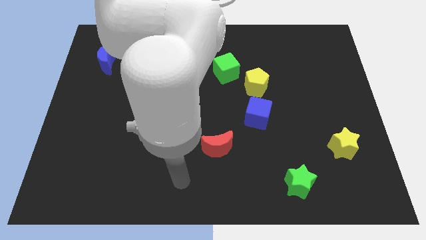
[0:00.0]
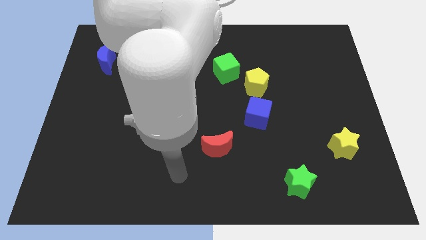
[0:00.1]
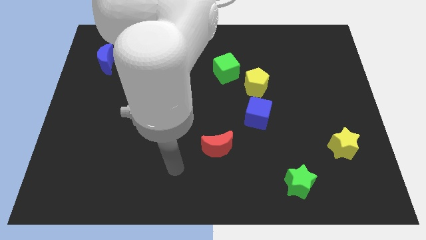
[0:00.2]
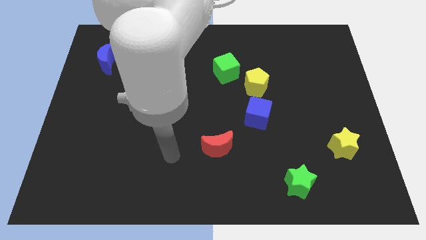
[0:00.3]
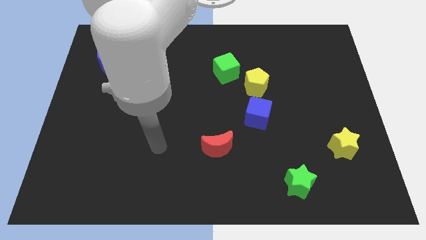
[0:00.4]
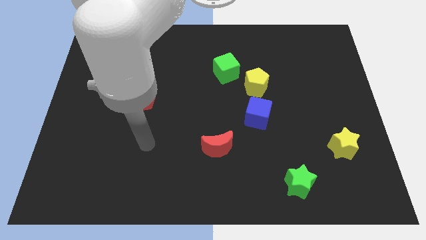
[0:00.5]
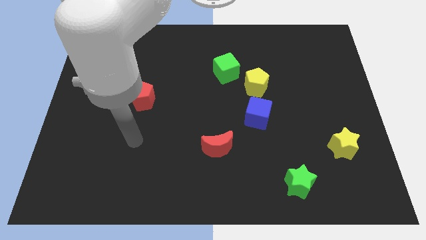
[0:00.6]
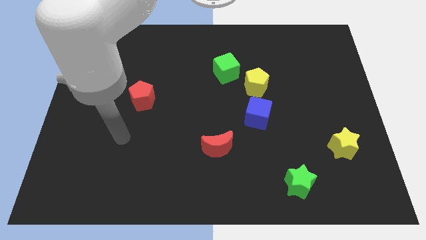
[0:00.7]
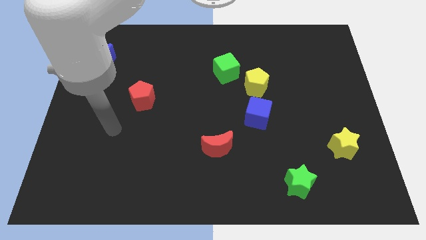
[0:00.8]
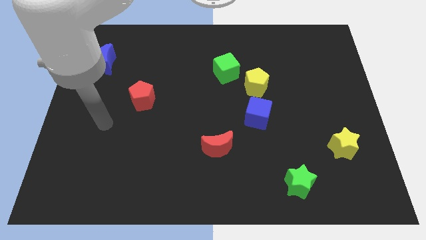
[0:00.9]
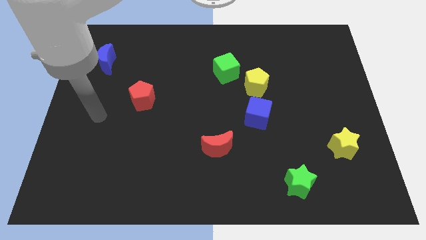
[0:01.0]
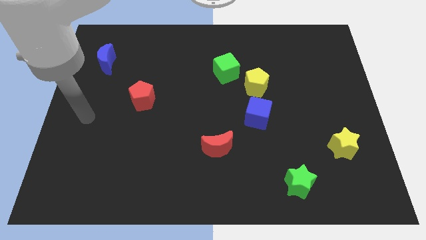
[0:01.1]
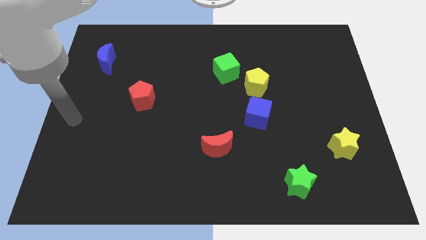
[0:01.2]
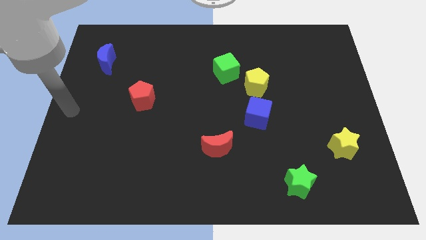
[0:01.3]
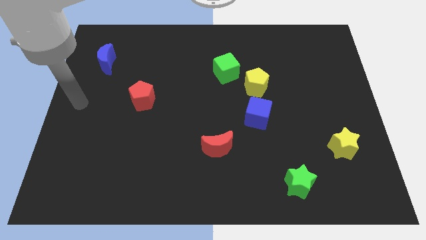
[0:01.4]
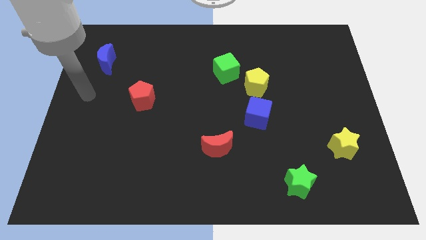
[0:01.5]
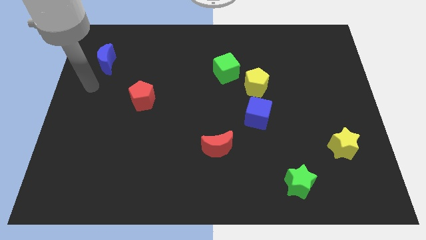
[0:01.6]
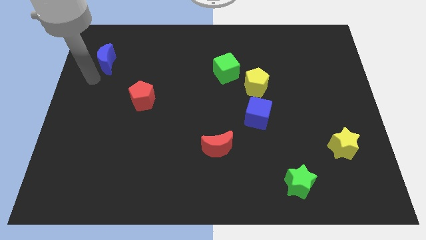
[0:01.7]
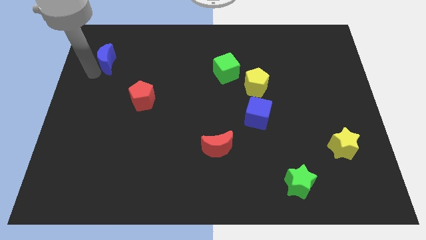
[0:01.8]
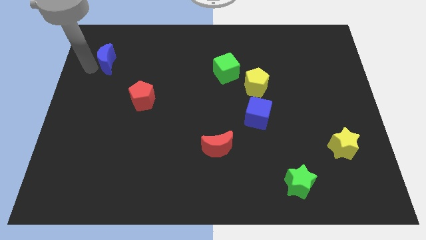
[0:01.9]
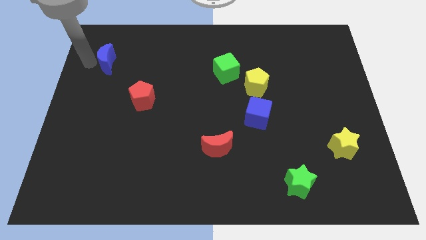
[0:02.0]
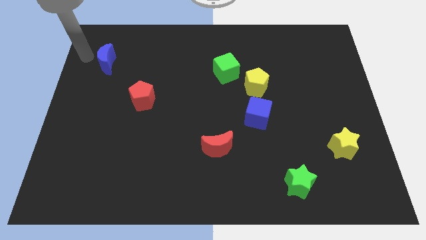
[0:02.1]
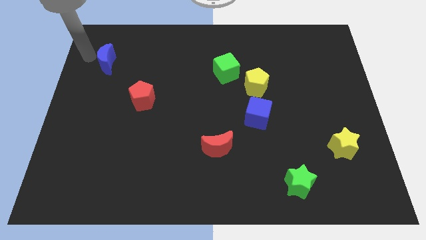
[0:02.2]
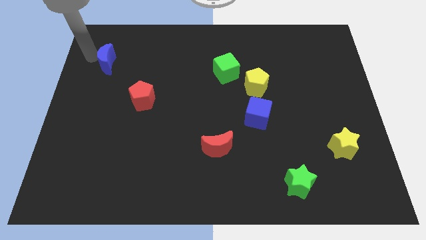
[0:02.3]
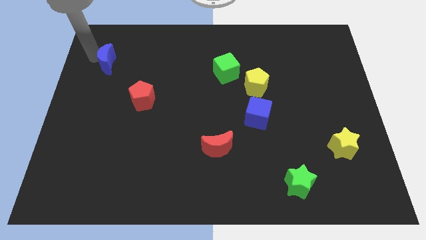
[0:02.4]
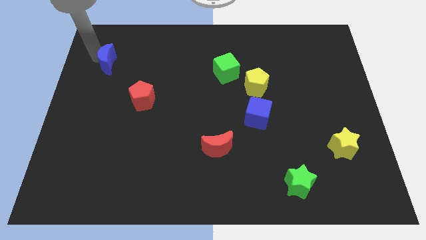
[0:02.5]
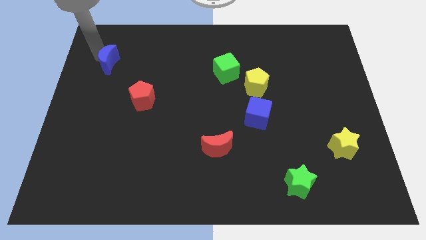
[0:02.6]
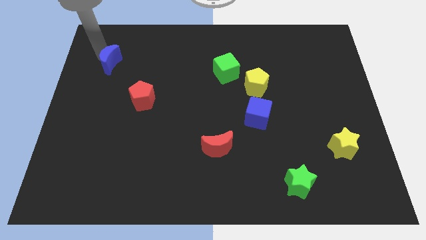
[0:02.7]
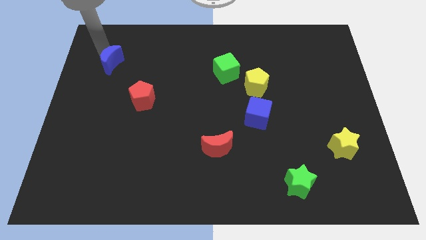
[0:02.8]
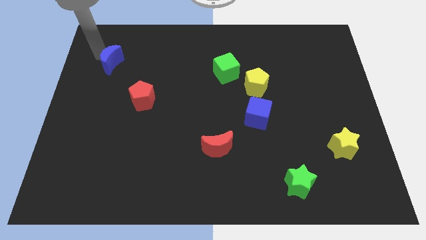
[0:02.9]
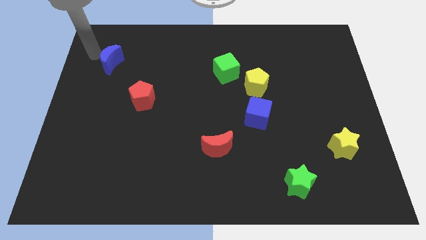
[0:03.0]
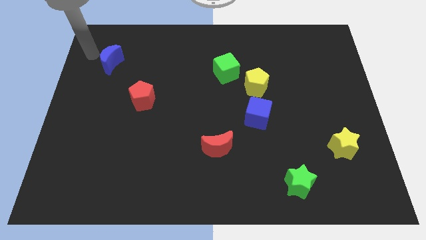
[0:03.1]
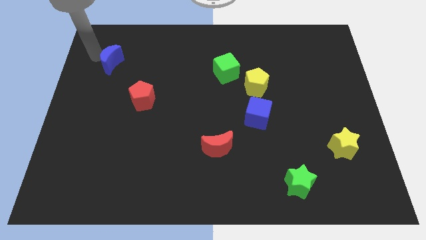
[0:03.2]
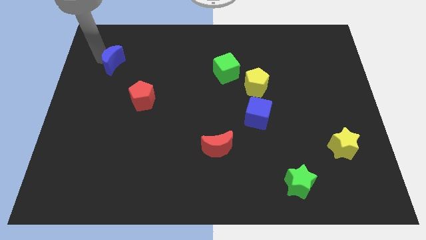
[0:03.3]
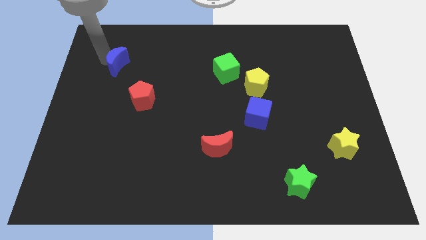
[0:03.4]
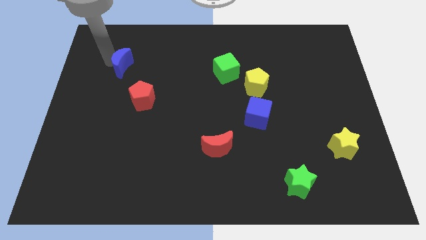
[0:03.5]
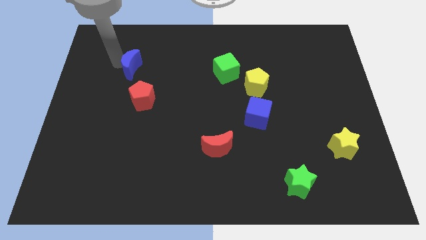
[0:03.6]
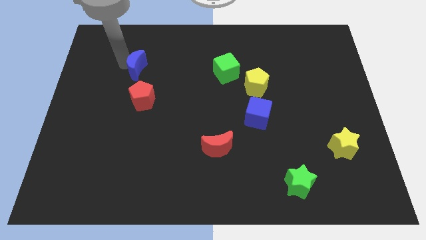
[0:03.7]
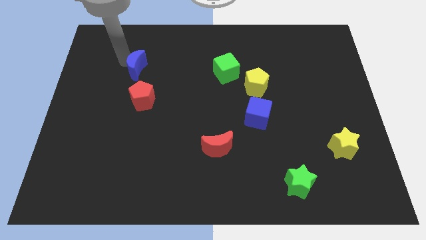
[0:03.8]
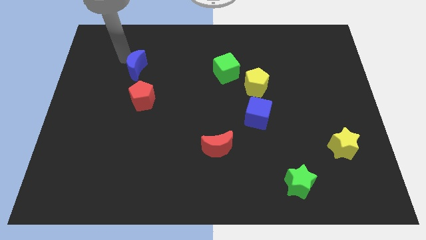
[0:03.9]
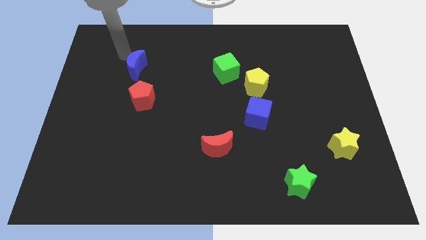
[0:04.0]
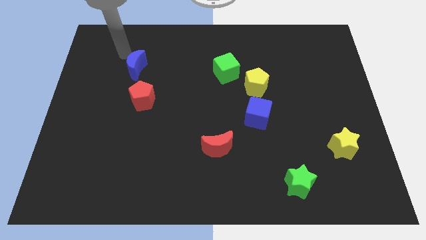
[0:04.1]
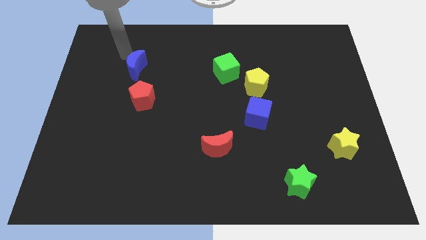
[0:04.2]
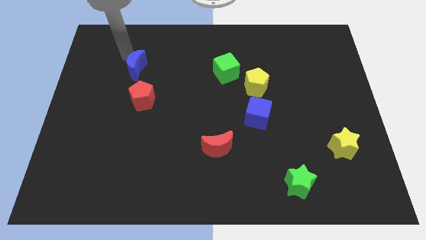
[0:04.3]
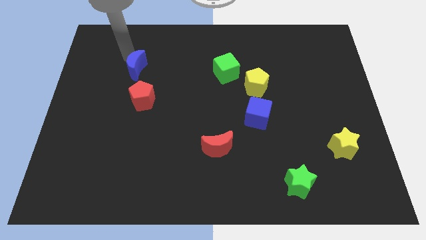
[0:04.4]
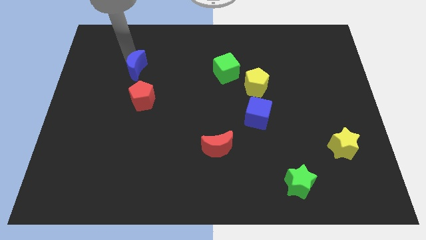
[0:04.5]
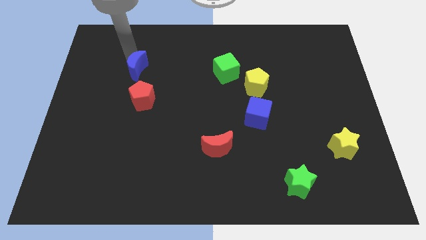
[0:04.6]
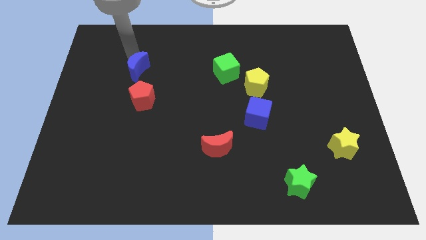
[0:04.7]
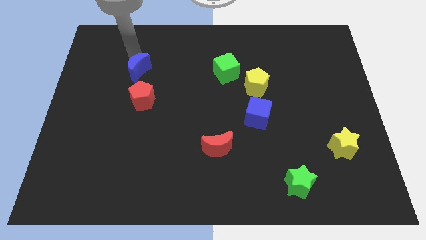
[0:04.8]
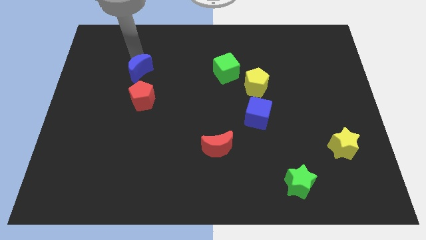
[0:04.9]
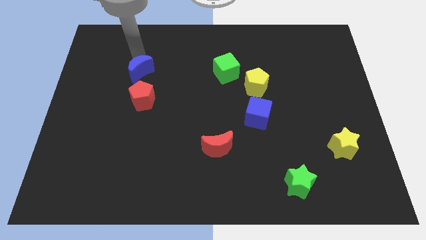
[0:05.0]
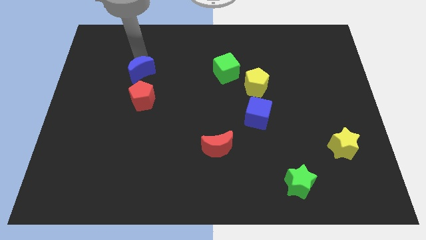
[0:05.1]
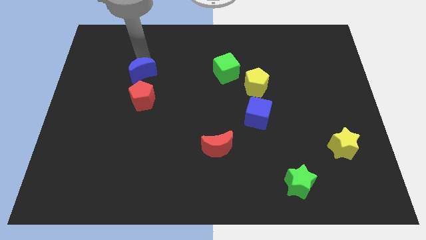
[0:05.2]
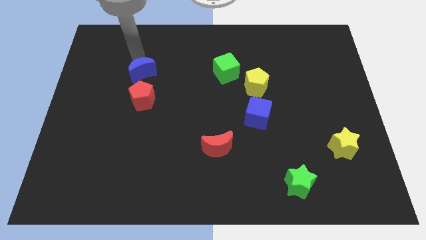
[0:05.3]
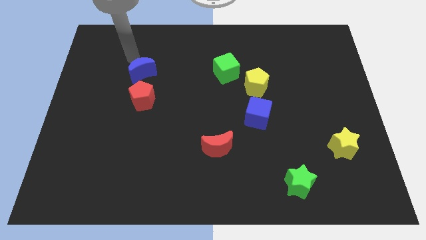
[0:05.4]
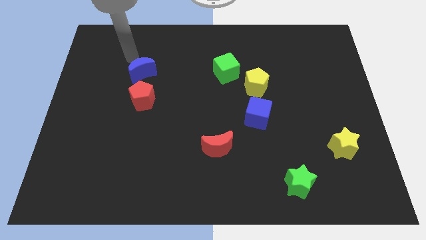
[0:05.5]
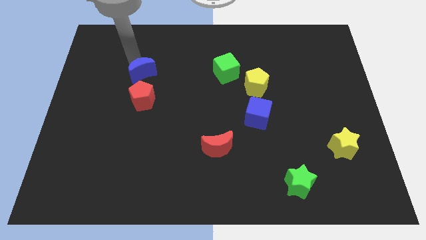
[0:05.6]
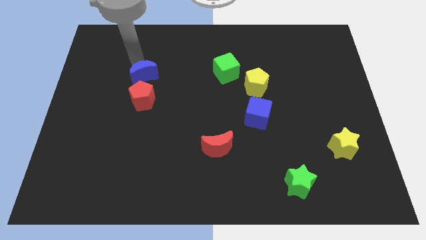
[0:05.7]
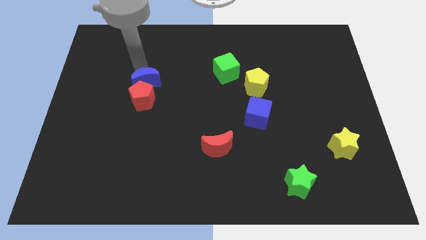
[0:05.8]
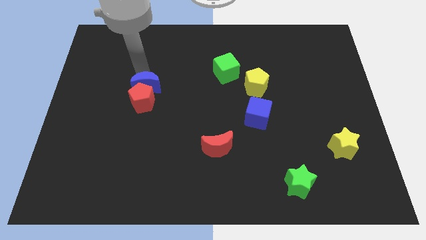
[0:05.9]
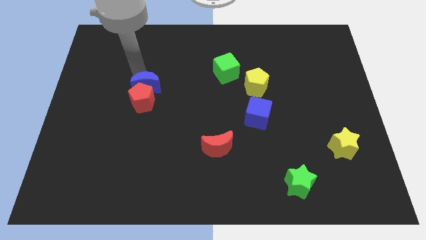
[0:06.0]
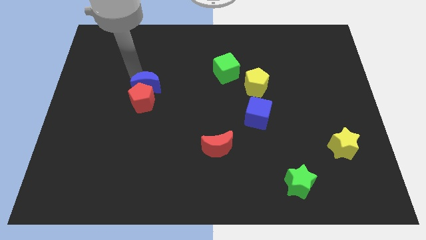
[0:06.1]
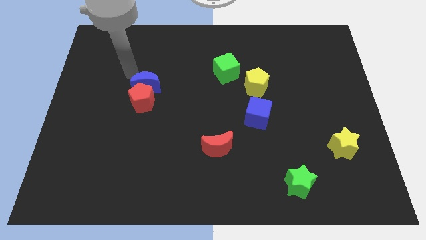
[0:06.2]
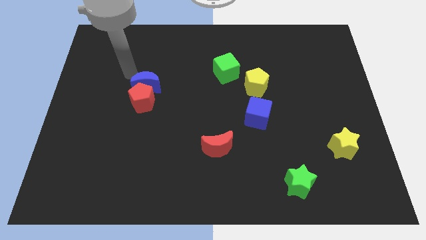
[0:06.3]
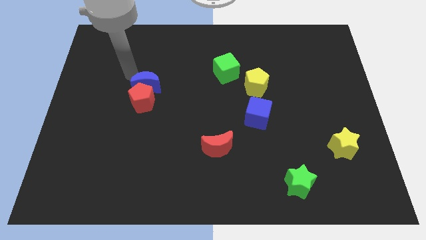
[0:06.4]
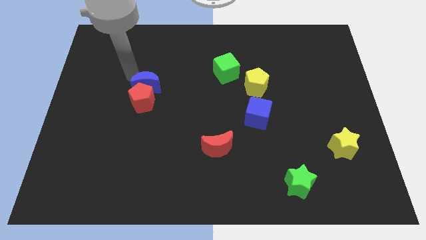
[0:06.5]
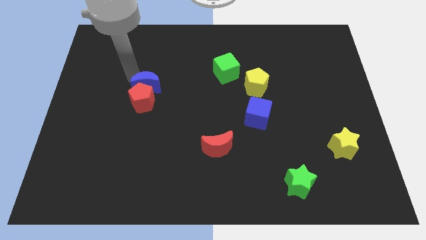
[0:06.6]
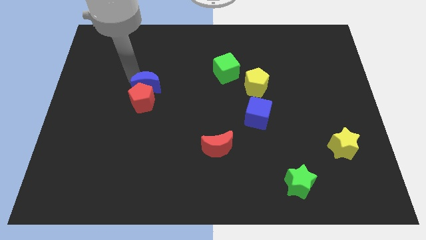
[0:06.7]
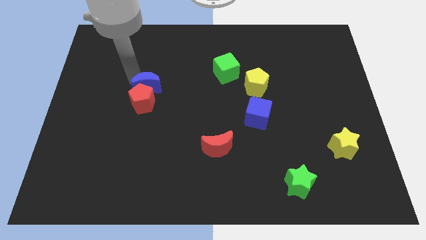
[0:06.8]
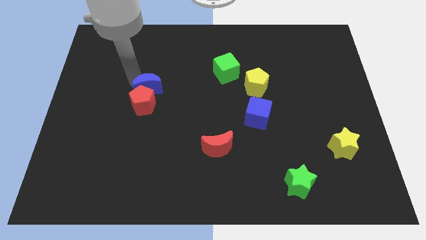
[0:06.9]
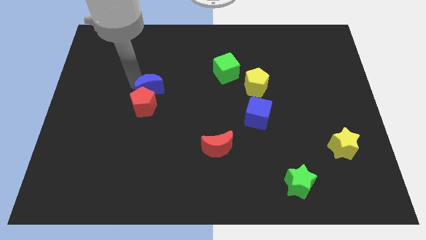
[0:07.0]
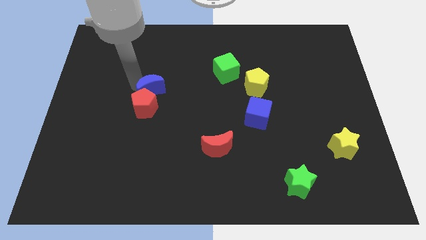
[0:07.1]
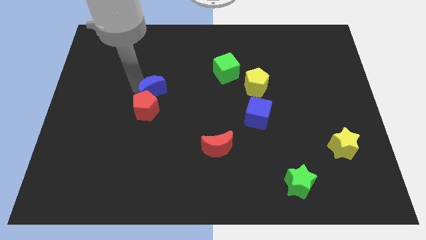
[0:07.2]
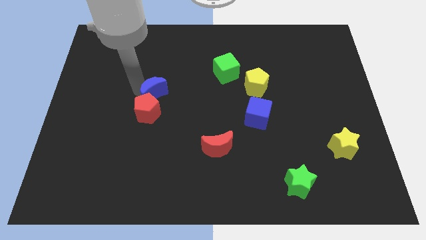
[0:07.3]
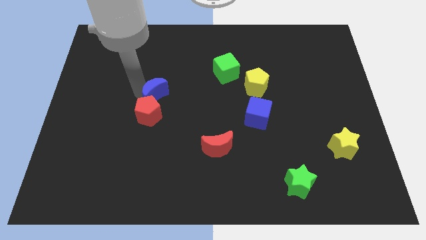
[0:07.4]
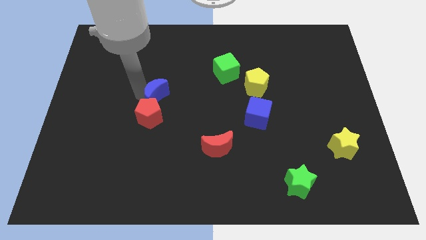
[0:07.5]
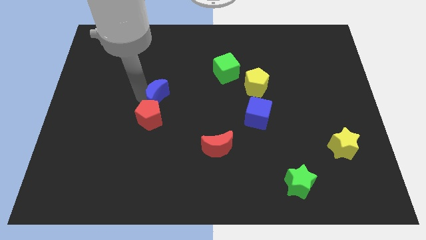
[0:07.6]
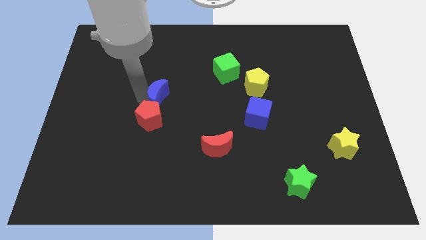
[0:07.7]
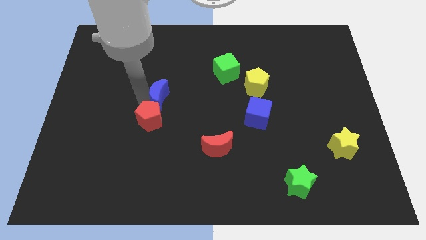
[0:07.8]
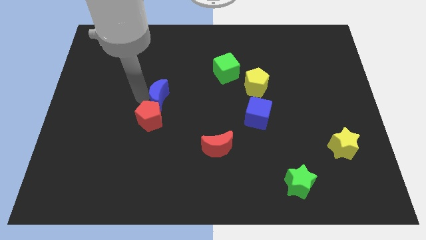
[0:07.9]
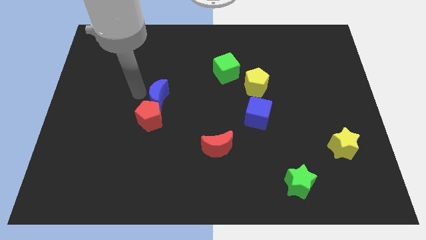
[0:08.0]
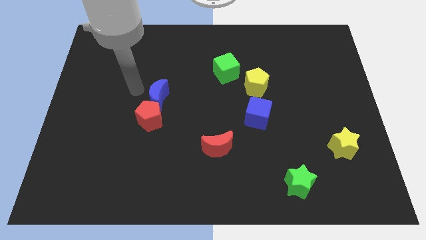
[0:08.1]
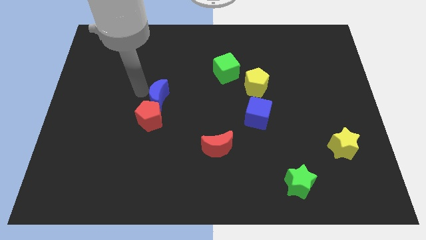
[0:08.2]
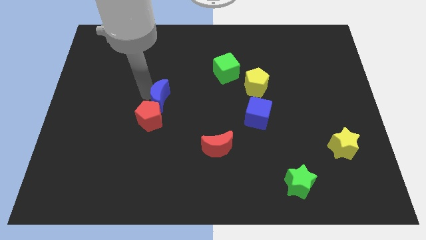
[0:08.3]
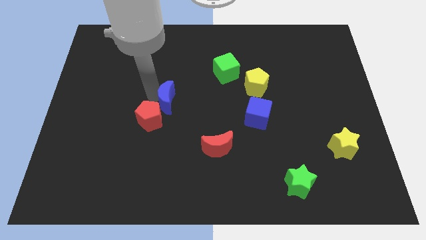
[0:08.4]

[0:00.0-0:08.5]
slide the blue moon diagonally down and to the right
